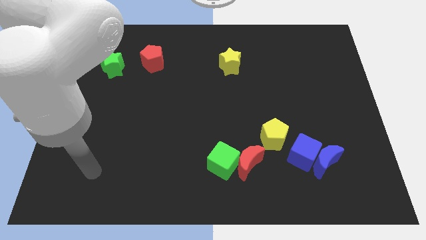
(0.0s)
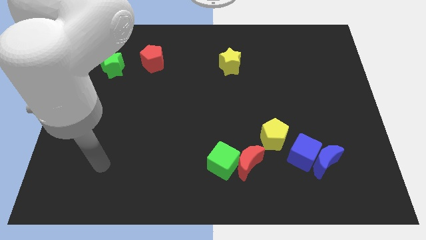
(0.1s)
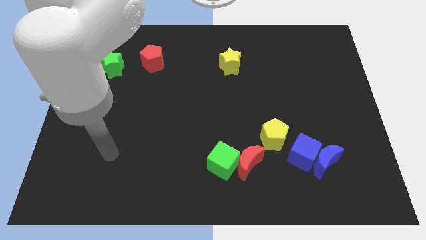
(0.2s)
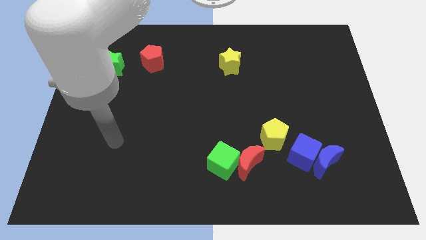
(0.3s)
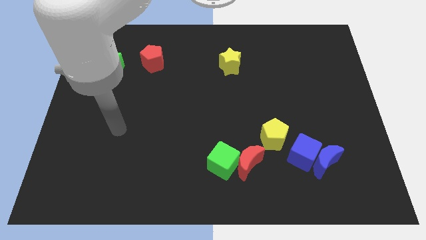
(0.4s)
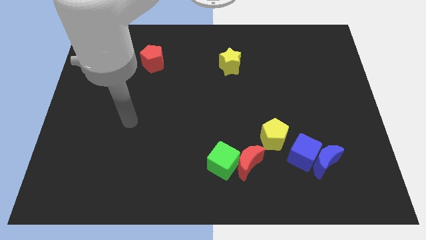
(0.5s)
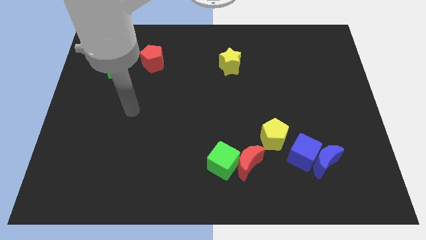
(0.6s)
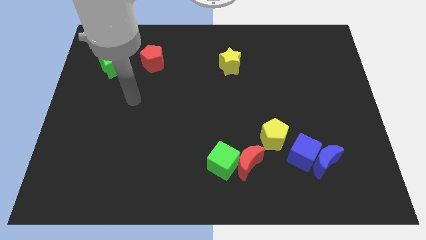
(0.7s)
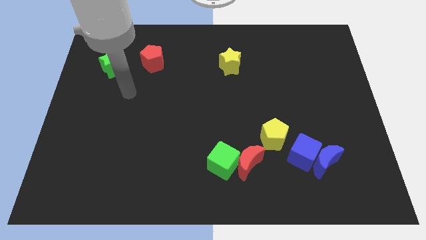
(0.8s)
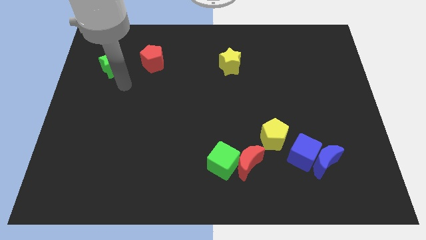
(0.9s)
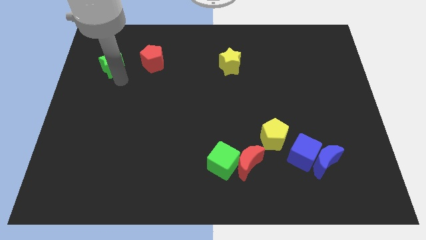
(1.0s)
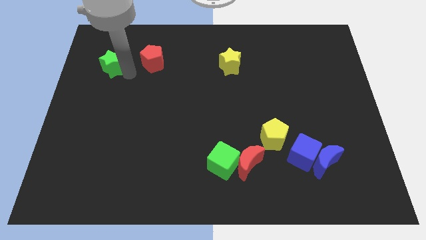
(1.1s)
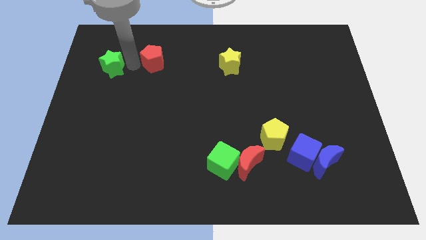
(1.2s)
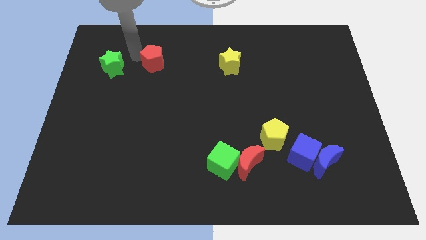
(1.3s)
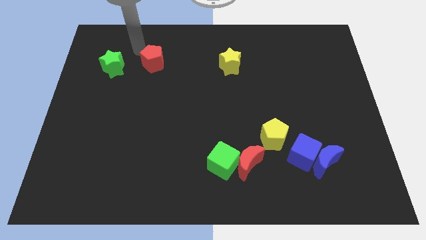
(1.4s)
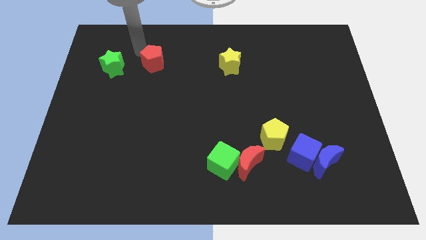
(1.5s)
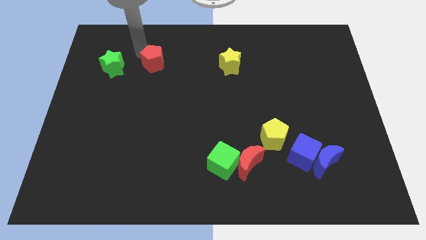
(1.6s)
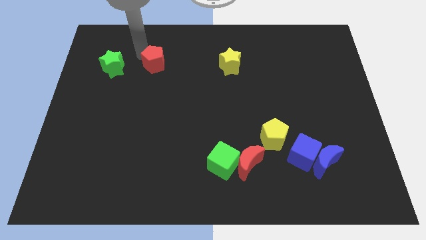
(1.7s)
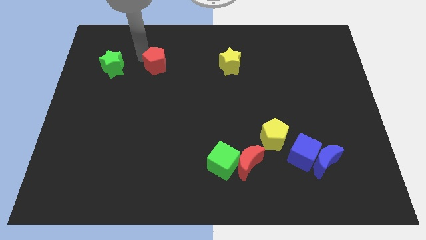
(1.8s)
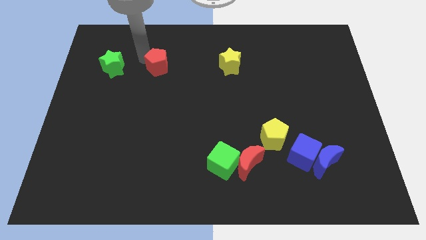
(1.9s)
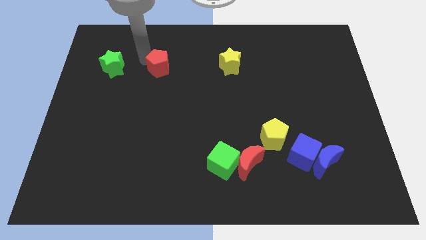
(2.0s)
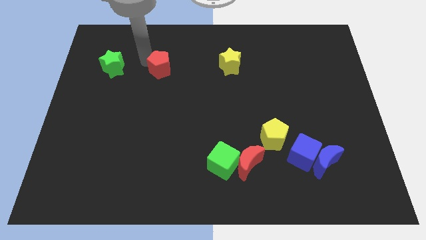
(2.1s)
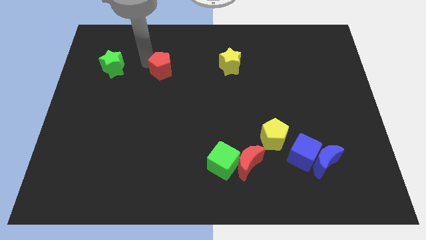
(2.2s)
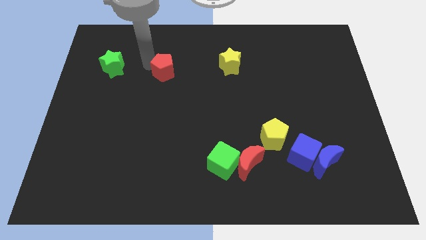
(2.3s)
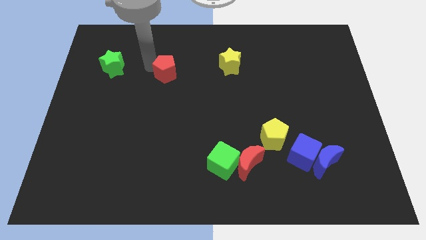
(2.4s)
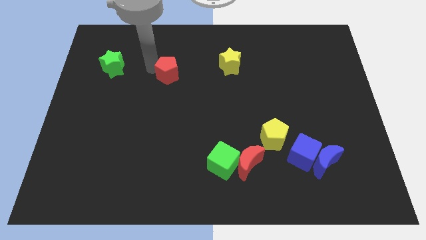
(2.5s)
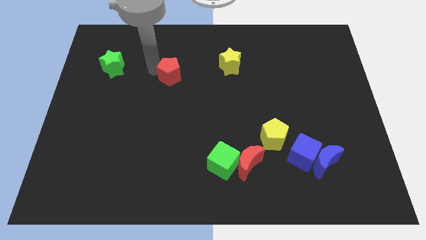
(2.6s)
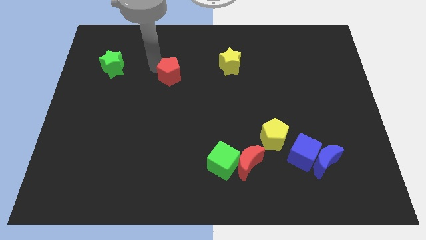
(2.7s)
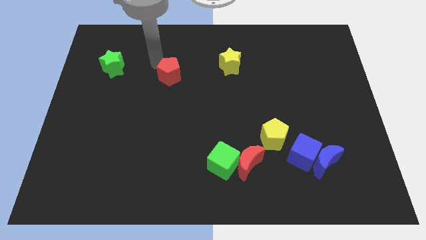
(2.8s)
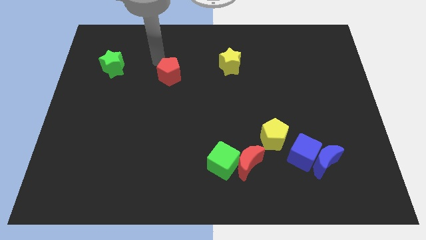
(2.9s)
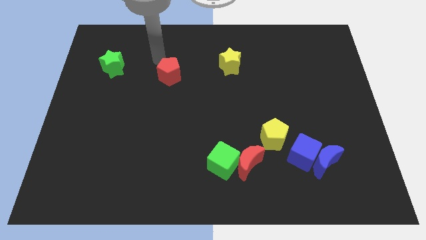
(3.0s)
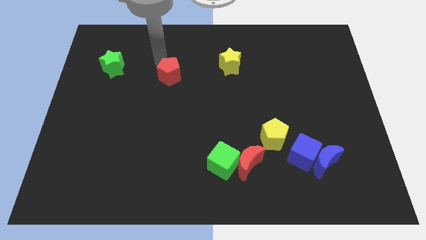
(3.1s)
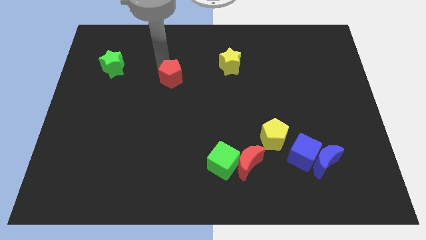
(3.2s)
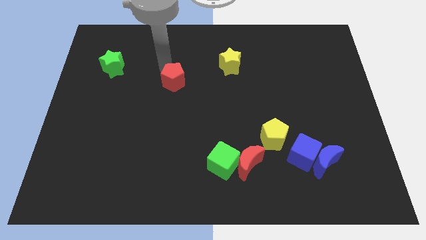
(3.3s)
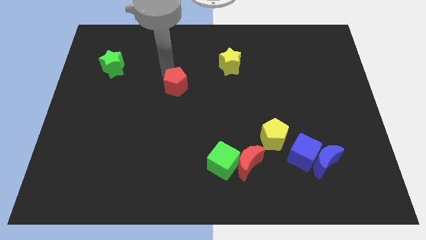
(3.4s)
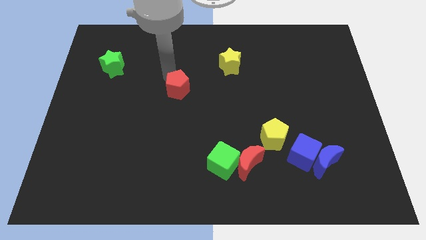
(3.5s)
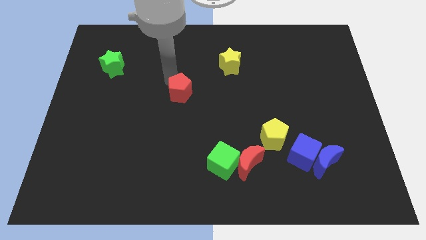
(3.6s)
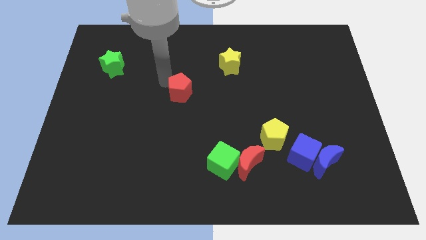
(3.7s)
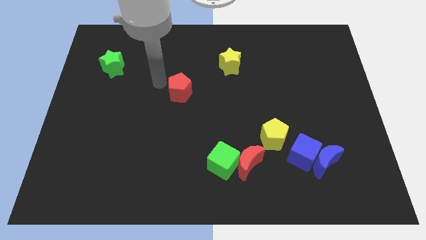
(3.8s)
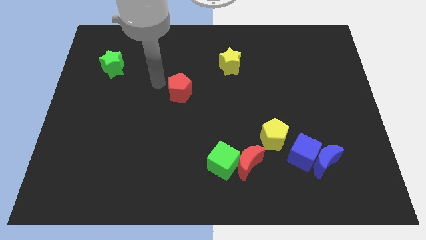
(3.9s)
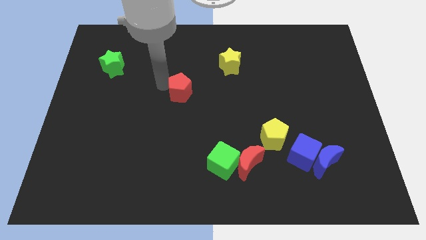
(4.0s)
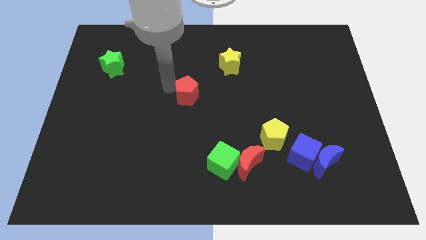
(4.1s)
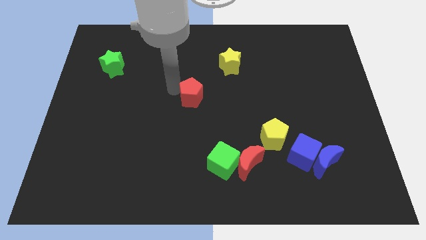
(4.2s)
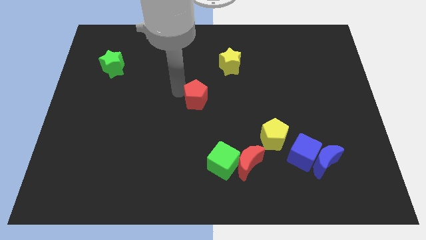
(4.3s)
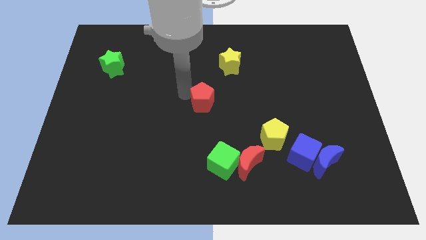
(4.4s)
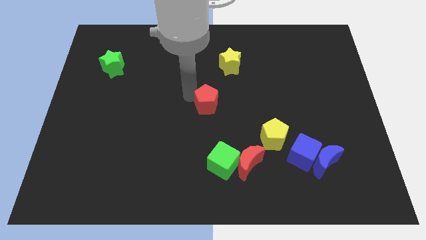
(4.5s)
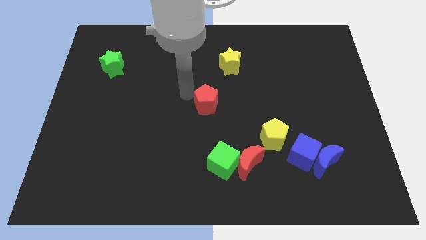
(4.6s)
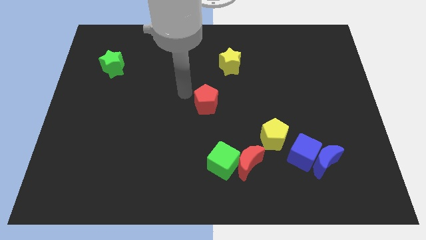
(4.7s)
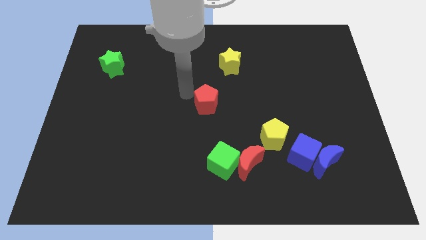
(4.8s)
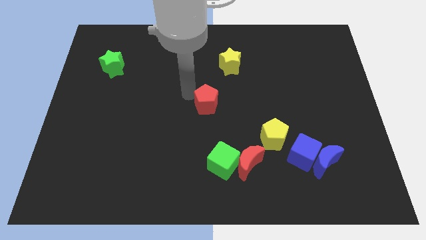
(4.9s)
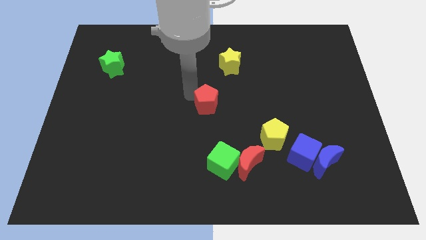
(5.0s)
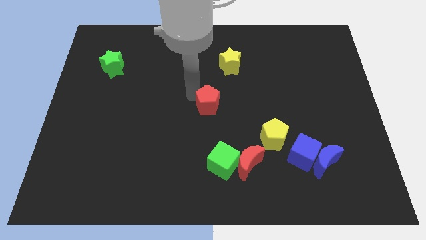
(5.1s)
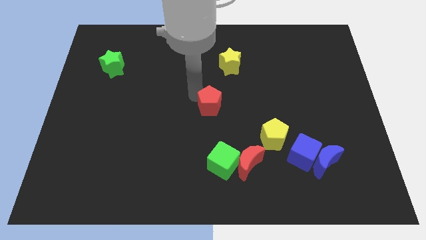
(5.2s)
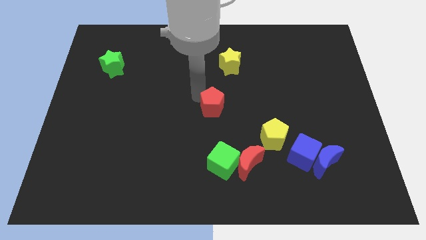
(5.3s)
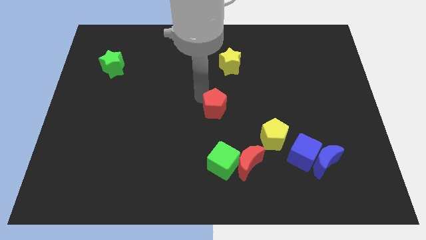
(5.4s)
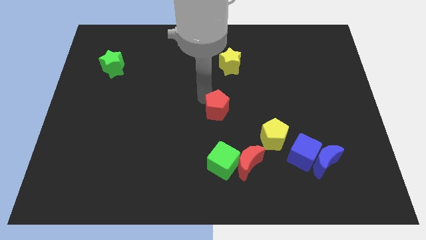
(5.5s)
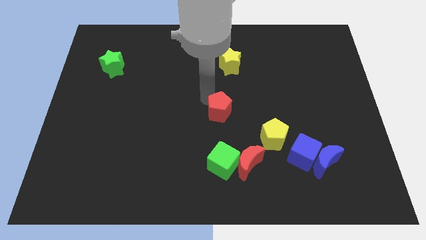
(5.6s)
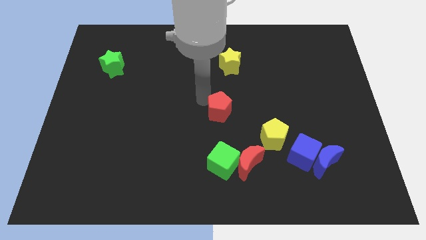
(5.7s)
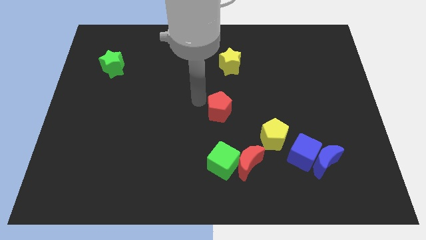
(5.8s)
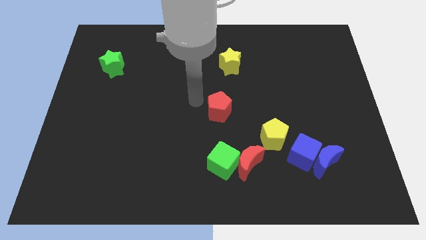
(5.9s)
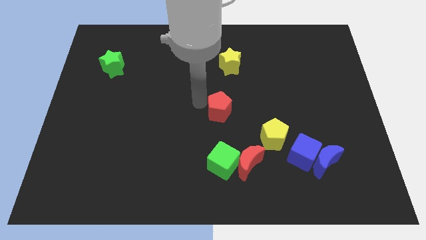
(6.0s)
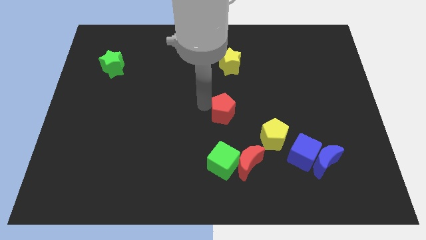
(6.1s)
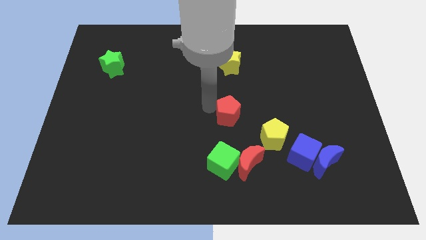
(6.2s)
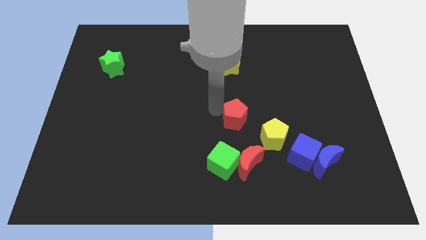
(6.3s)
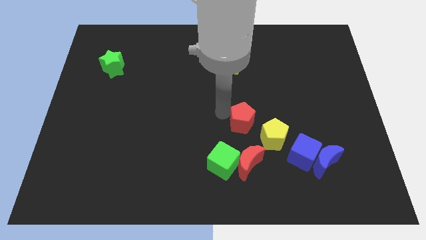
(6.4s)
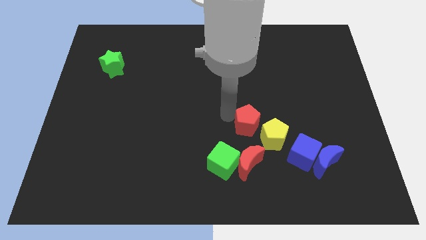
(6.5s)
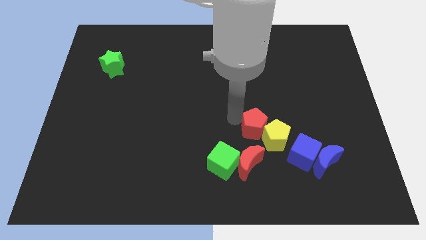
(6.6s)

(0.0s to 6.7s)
push the red pentagon close to the yellow pentagon

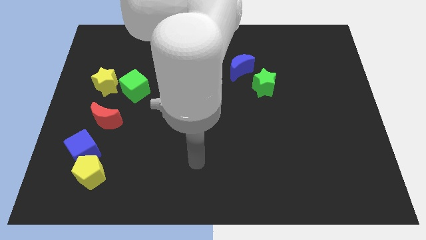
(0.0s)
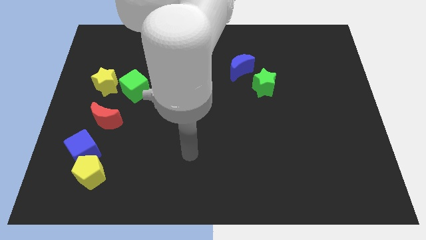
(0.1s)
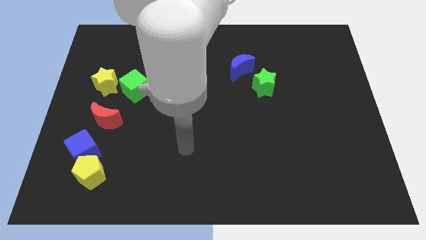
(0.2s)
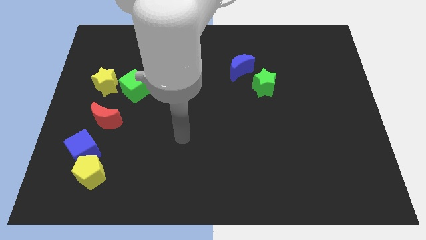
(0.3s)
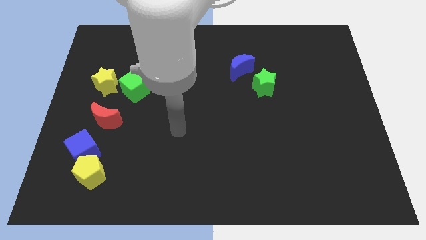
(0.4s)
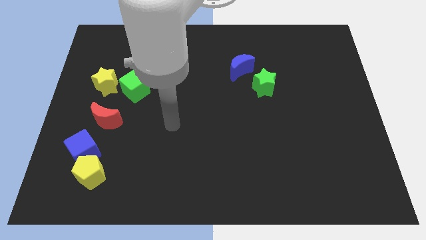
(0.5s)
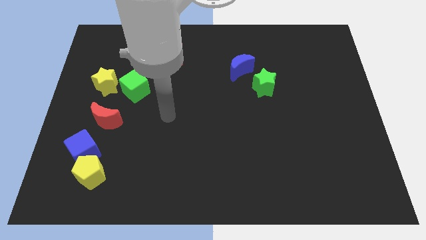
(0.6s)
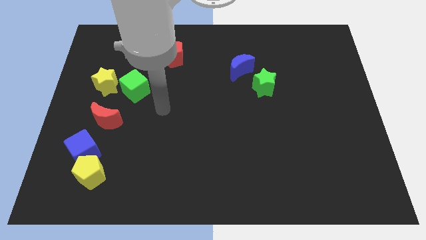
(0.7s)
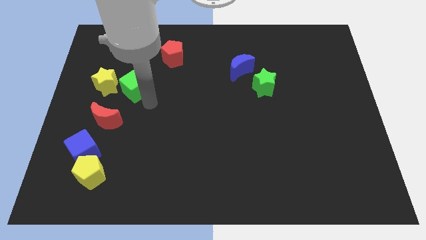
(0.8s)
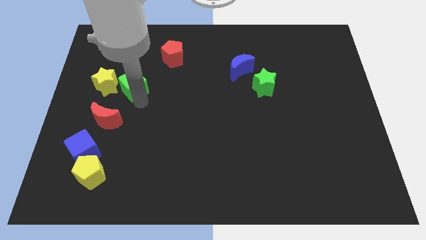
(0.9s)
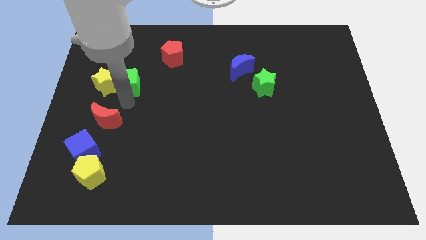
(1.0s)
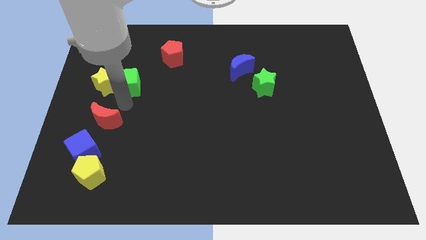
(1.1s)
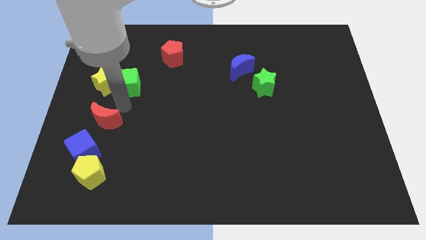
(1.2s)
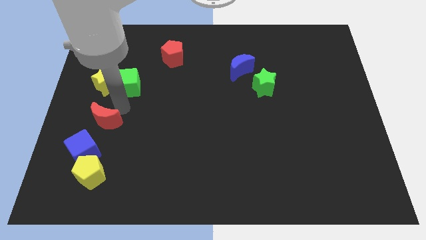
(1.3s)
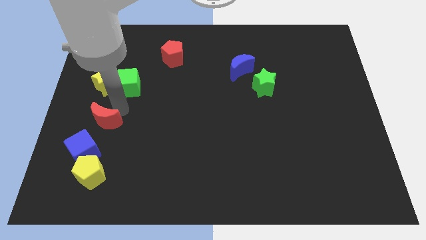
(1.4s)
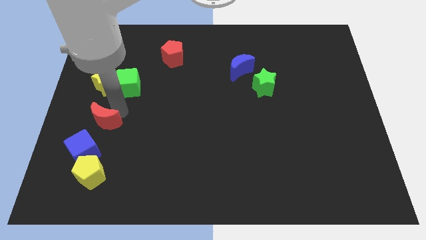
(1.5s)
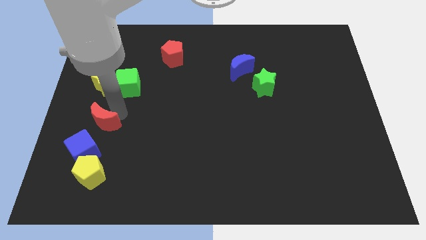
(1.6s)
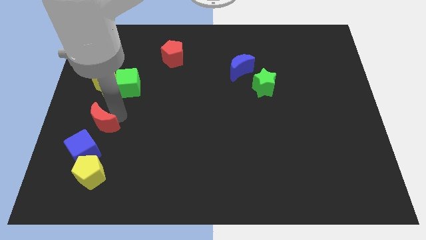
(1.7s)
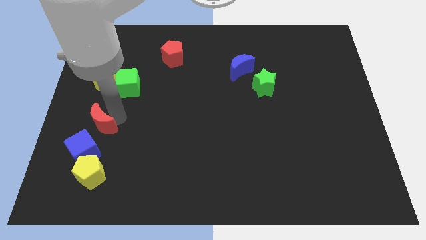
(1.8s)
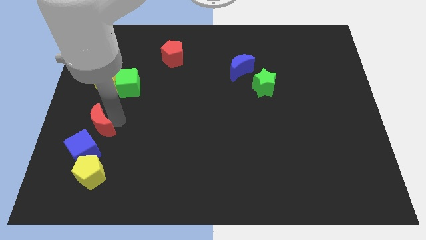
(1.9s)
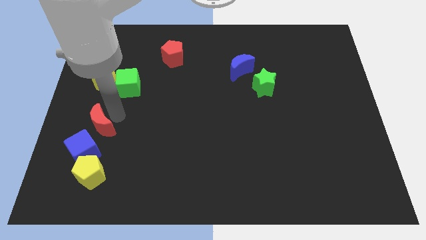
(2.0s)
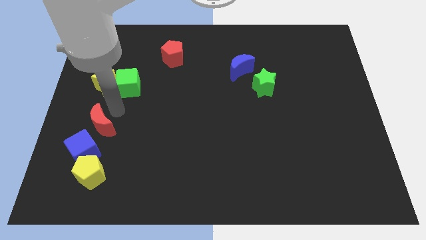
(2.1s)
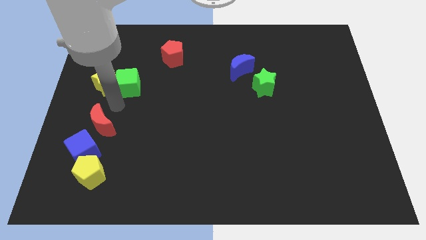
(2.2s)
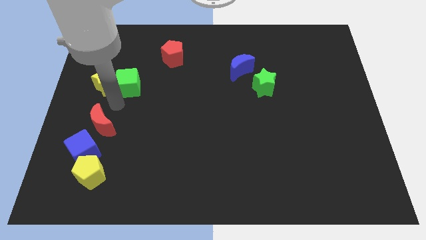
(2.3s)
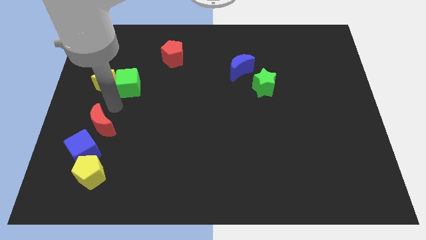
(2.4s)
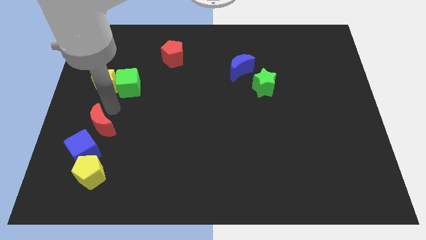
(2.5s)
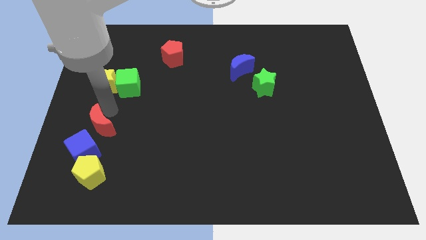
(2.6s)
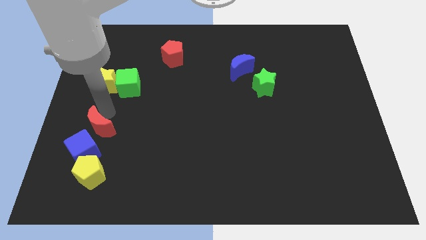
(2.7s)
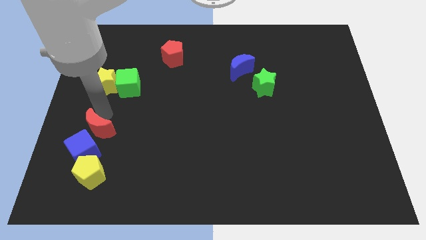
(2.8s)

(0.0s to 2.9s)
move the red moon next to the blue cube
